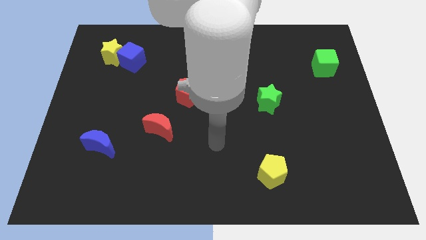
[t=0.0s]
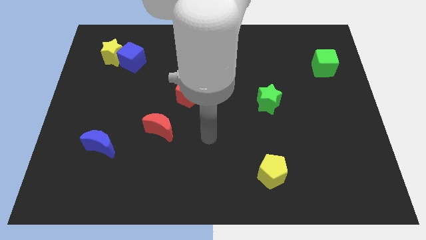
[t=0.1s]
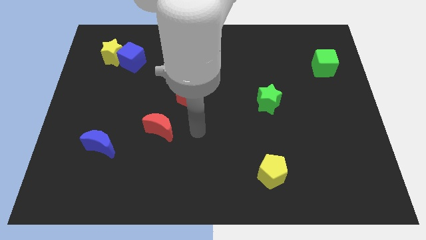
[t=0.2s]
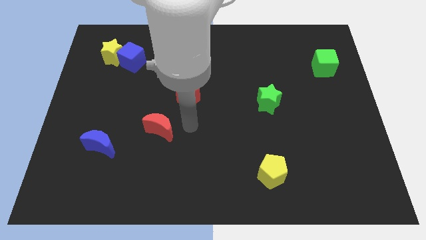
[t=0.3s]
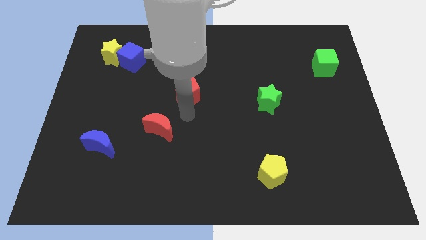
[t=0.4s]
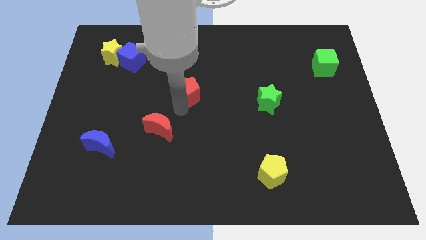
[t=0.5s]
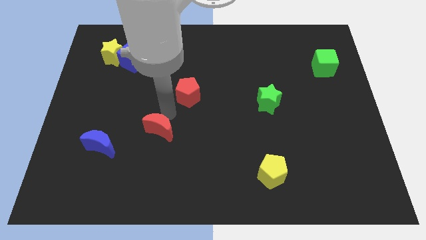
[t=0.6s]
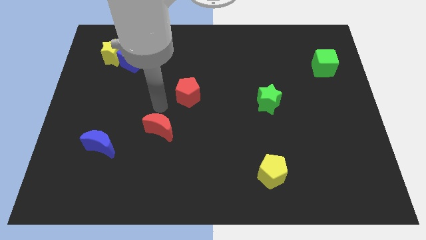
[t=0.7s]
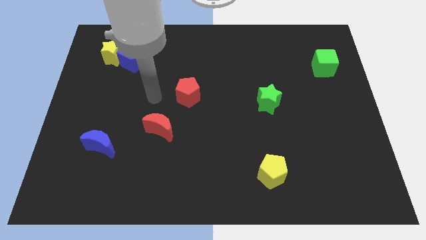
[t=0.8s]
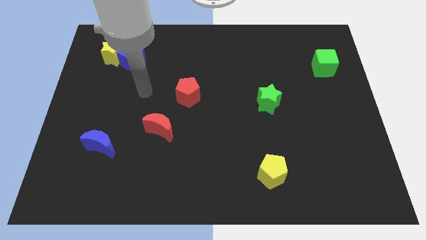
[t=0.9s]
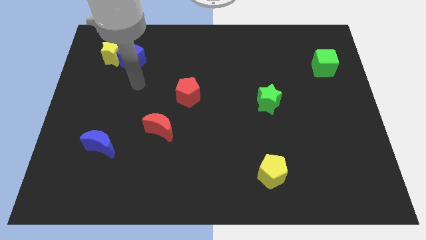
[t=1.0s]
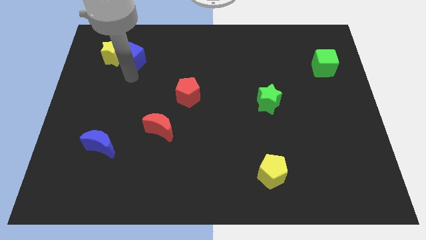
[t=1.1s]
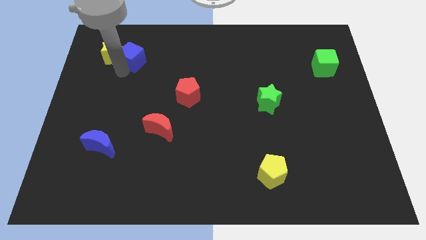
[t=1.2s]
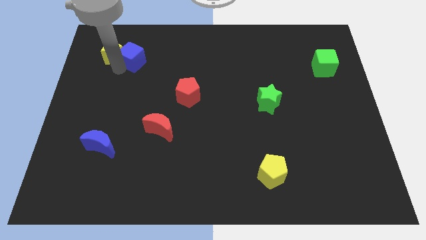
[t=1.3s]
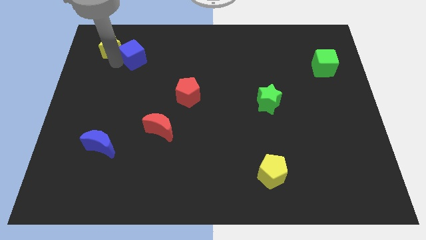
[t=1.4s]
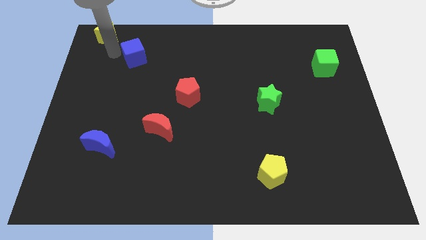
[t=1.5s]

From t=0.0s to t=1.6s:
pull the blue cube apart from the yellow star

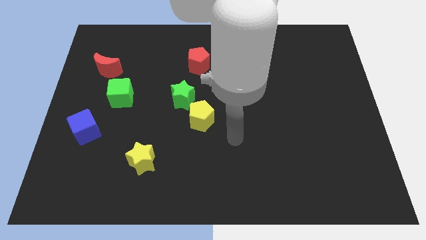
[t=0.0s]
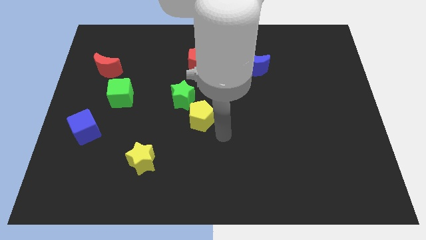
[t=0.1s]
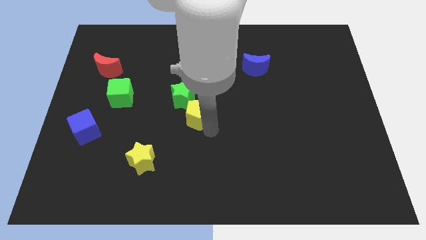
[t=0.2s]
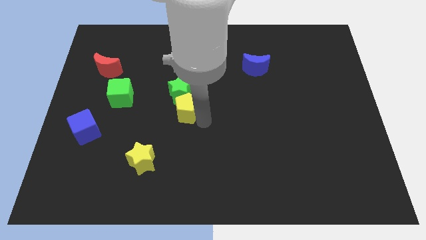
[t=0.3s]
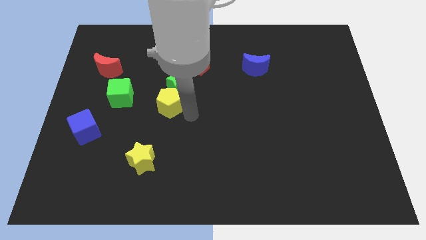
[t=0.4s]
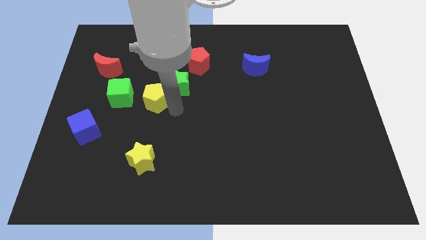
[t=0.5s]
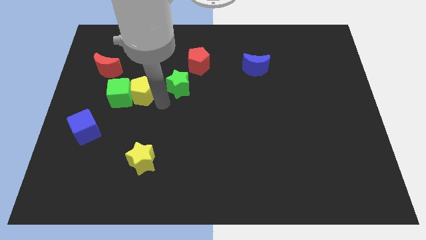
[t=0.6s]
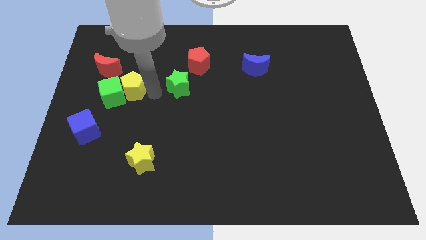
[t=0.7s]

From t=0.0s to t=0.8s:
pull the green star apart from the yellow pentagon

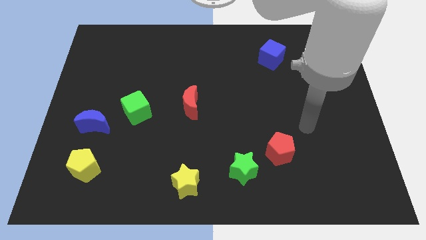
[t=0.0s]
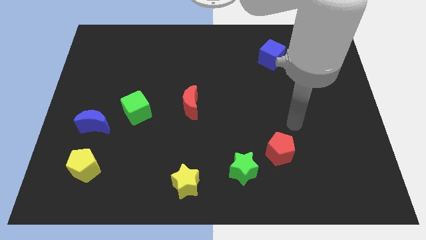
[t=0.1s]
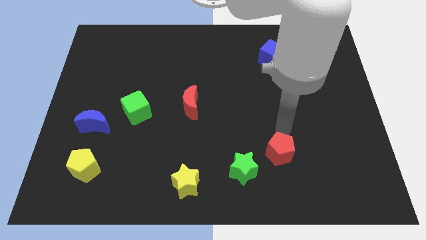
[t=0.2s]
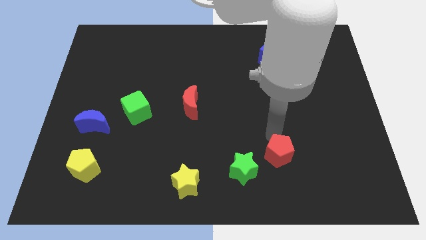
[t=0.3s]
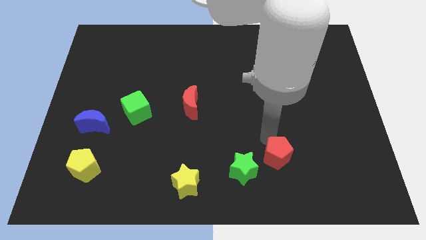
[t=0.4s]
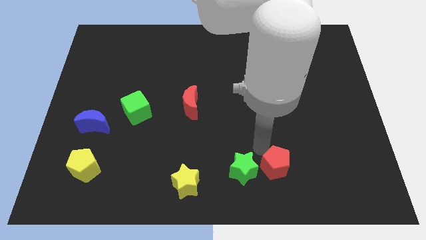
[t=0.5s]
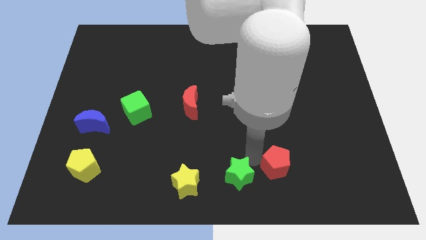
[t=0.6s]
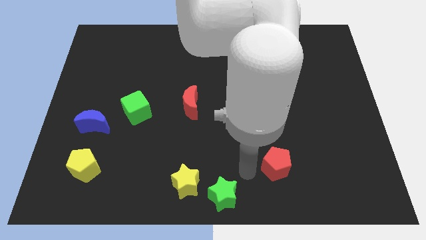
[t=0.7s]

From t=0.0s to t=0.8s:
separate the red pentagon from the green star

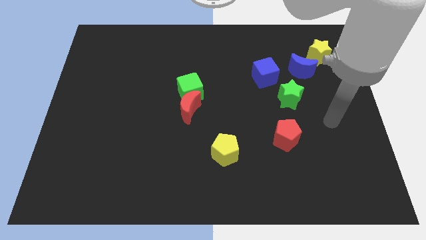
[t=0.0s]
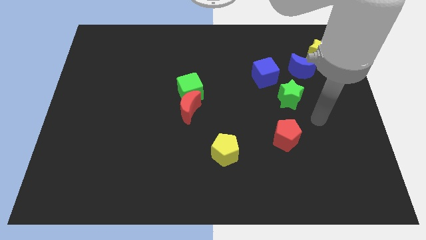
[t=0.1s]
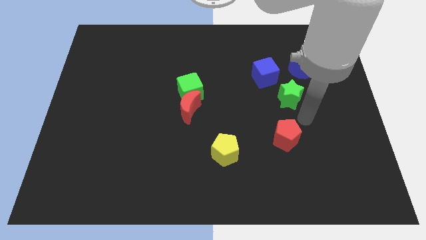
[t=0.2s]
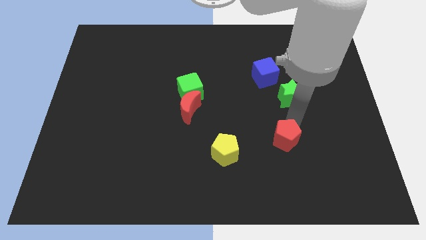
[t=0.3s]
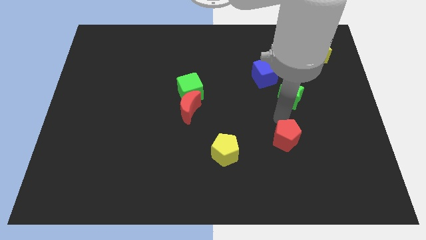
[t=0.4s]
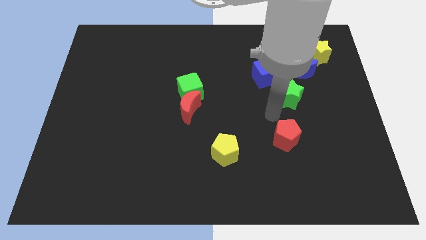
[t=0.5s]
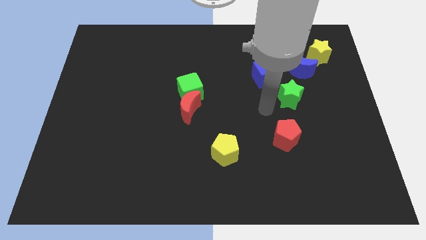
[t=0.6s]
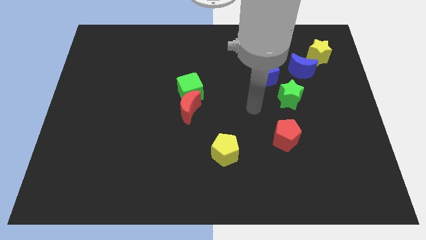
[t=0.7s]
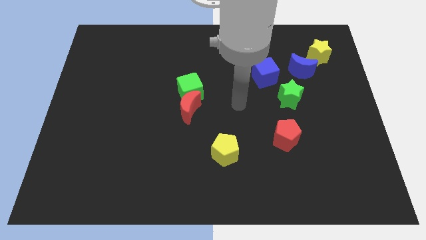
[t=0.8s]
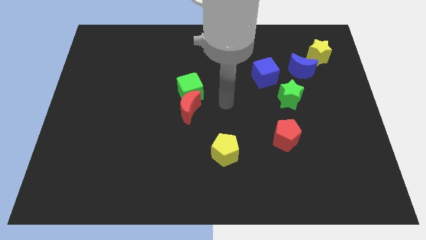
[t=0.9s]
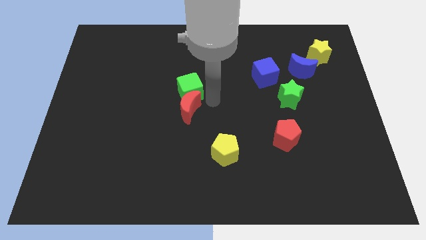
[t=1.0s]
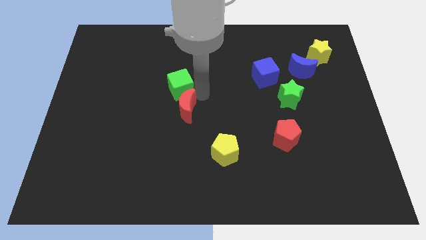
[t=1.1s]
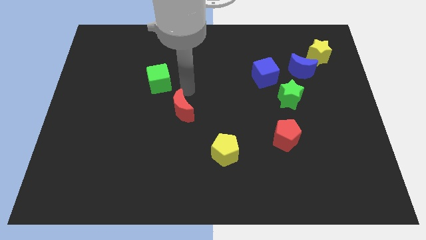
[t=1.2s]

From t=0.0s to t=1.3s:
move the red moon away from the green cube

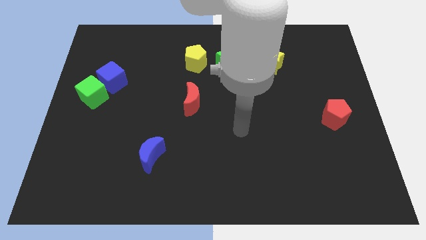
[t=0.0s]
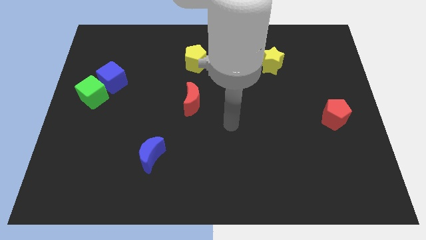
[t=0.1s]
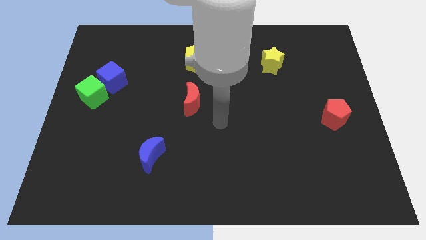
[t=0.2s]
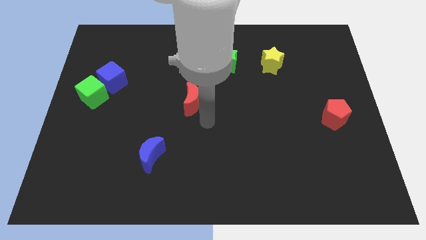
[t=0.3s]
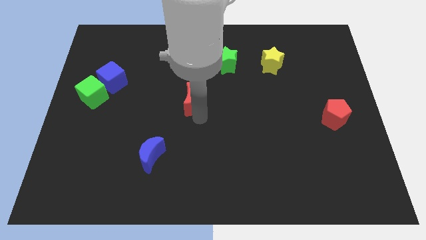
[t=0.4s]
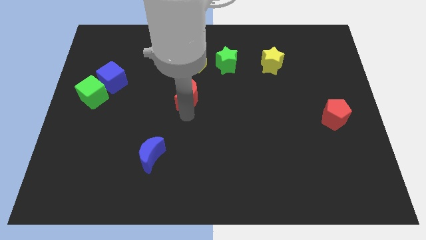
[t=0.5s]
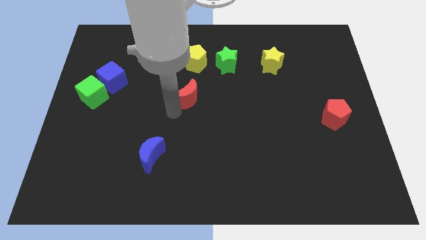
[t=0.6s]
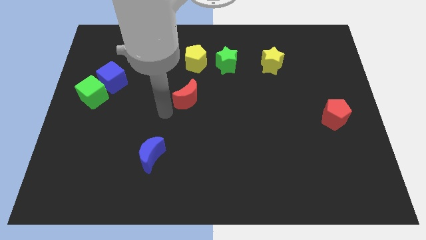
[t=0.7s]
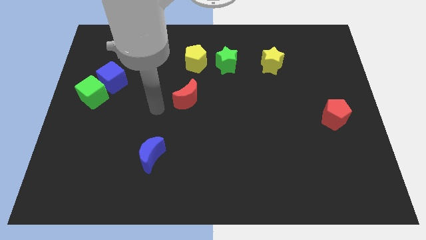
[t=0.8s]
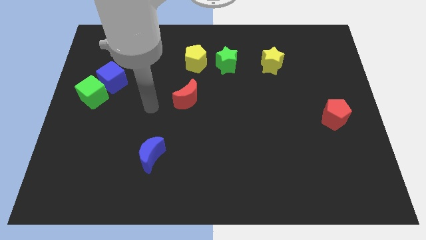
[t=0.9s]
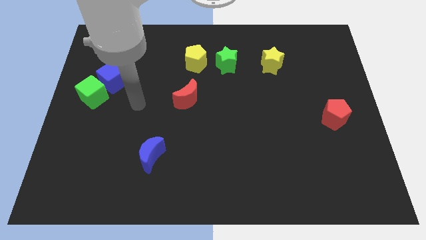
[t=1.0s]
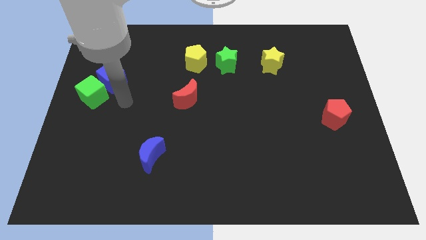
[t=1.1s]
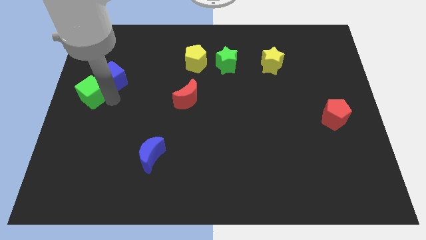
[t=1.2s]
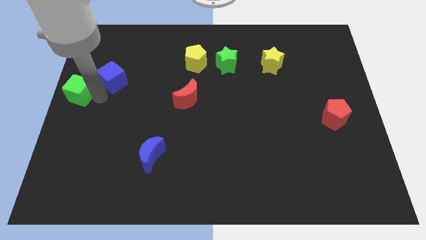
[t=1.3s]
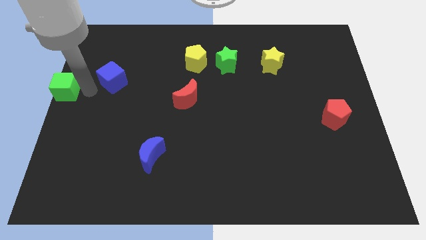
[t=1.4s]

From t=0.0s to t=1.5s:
separate the blue cube from the green cube

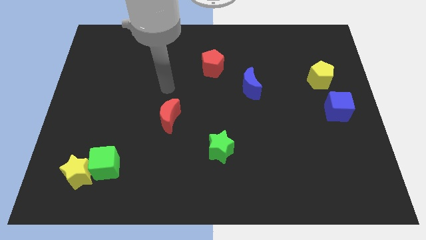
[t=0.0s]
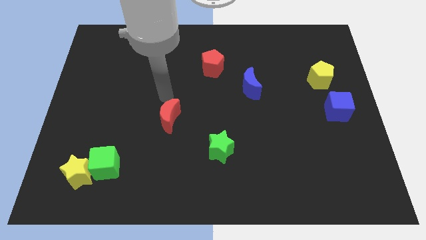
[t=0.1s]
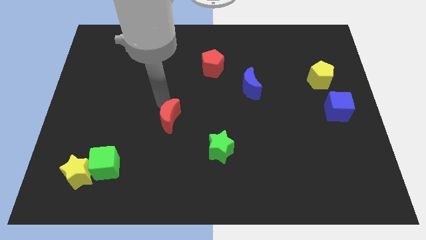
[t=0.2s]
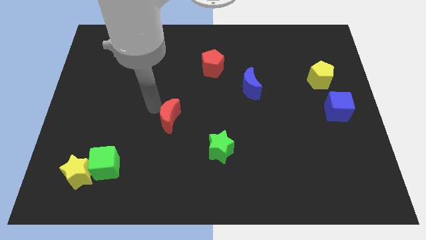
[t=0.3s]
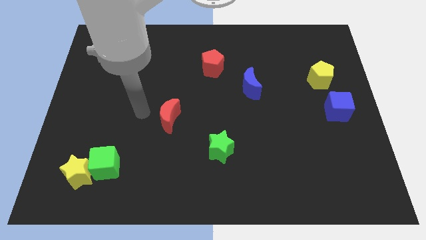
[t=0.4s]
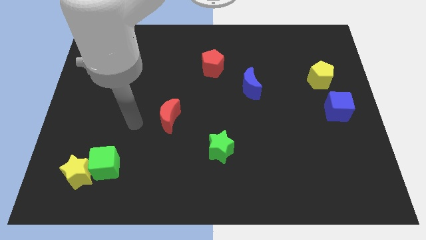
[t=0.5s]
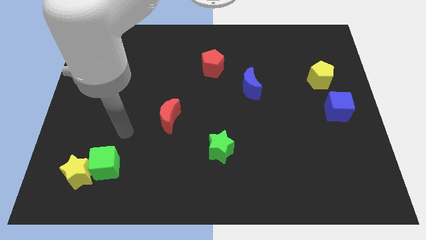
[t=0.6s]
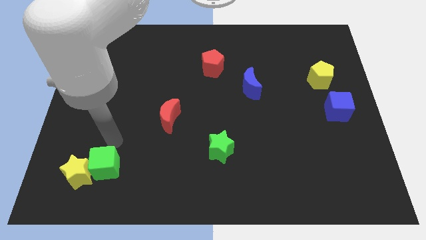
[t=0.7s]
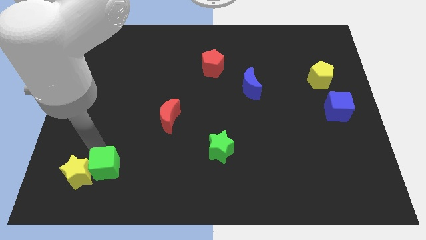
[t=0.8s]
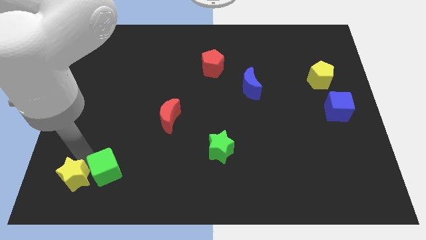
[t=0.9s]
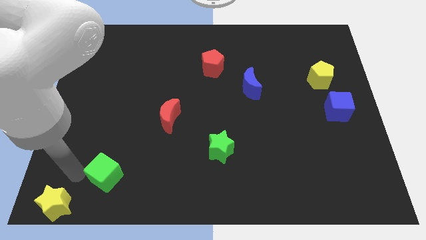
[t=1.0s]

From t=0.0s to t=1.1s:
pull the green cube apart from the yellow star

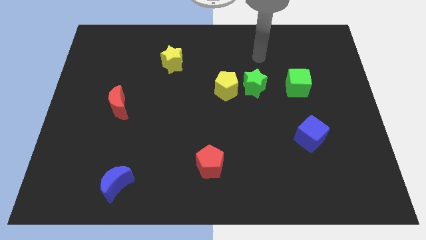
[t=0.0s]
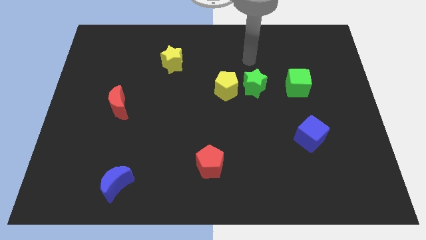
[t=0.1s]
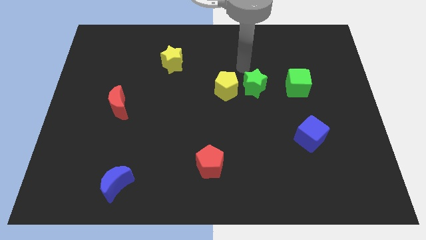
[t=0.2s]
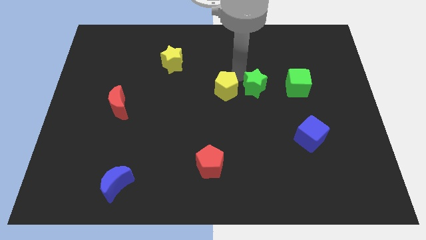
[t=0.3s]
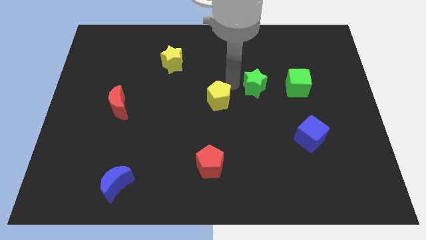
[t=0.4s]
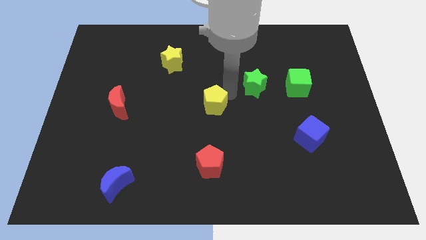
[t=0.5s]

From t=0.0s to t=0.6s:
separate the green star from the yellow pentagon

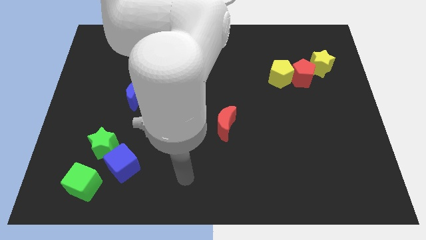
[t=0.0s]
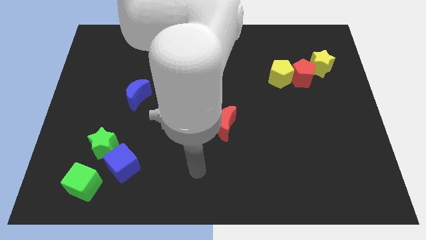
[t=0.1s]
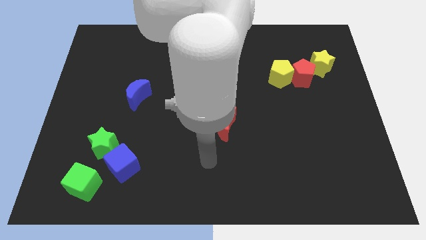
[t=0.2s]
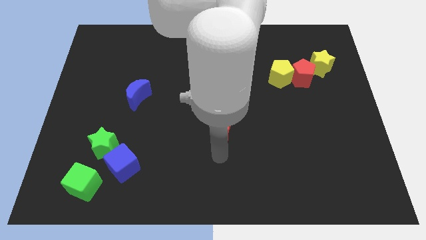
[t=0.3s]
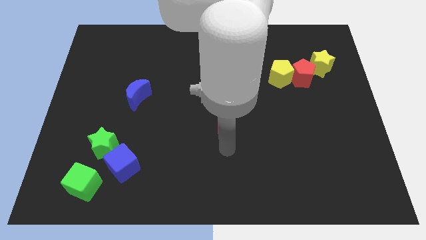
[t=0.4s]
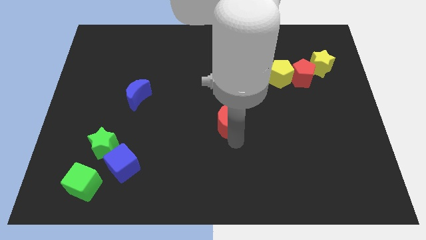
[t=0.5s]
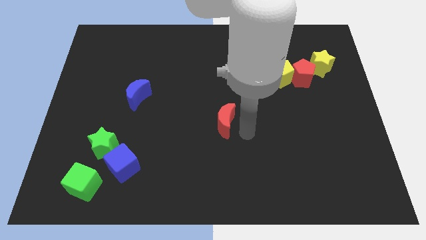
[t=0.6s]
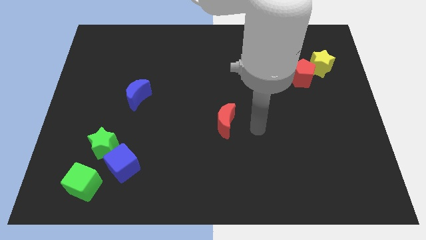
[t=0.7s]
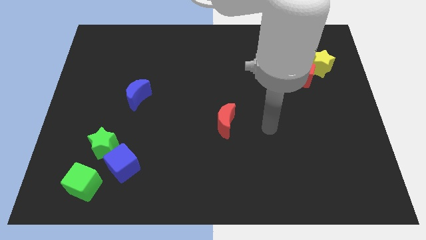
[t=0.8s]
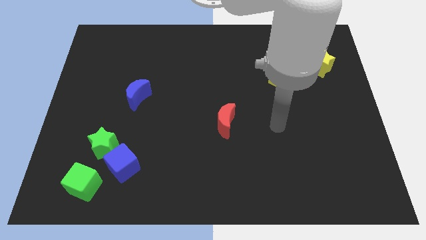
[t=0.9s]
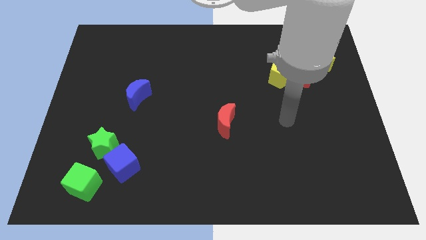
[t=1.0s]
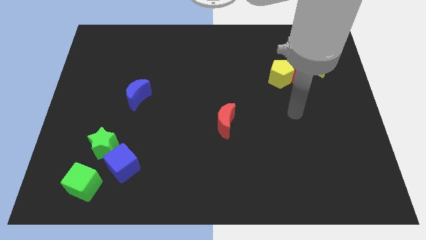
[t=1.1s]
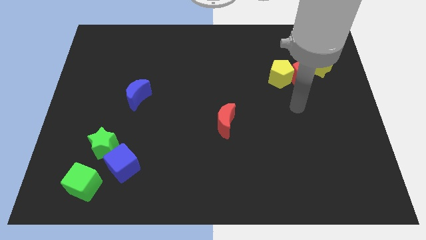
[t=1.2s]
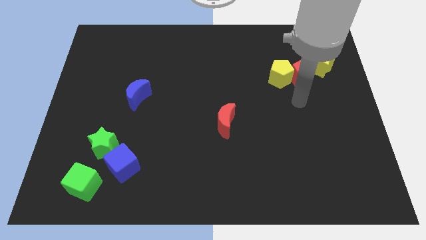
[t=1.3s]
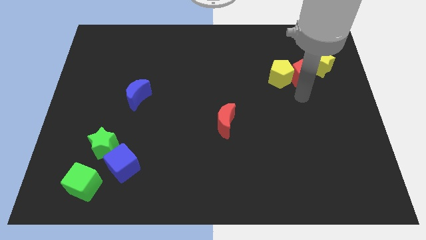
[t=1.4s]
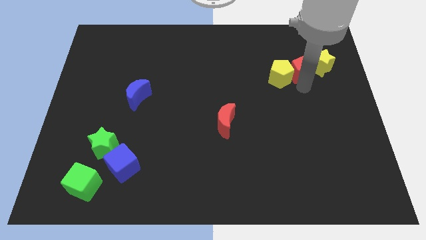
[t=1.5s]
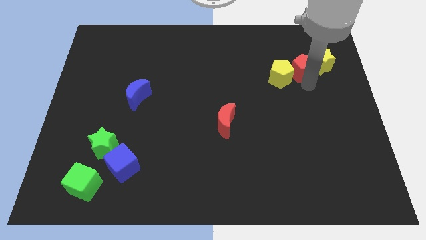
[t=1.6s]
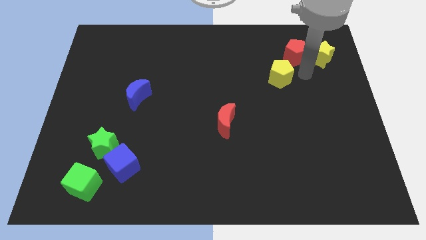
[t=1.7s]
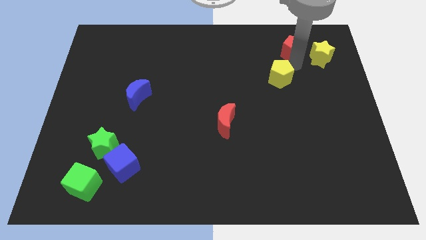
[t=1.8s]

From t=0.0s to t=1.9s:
move the yellow pentagon away from the red pentagon
